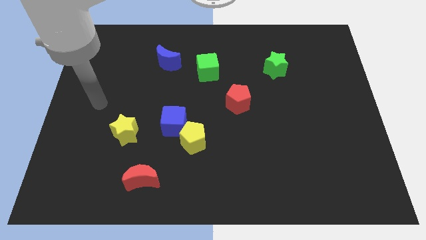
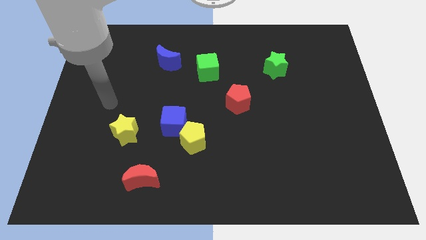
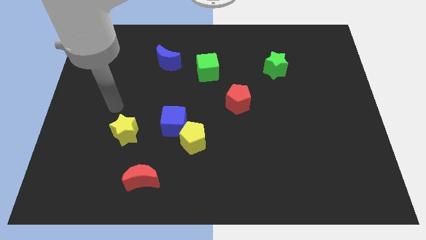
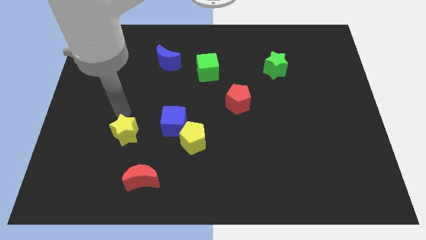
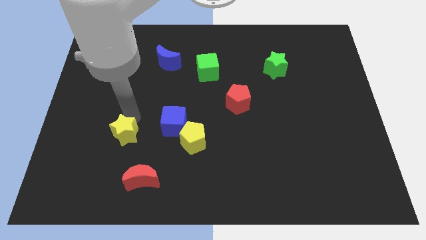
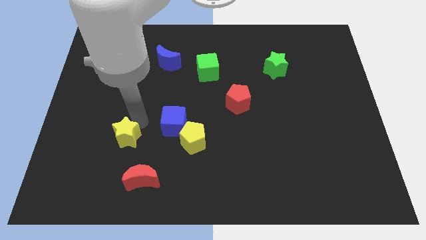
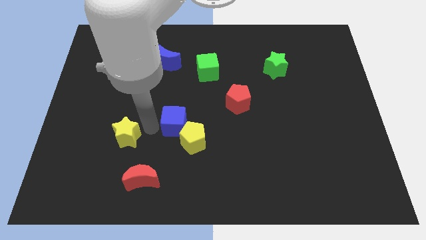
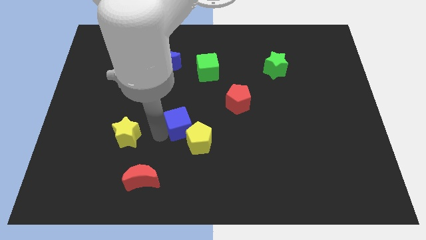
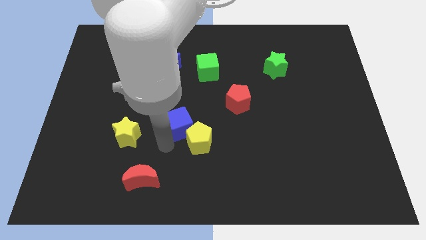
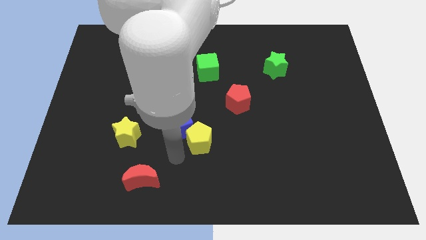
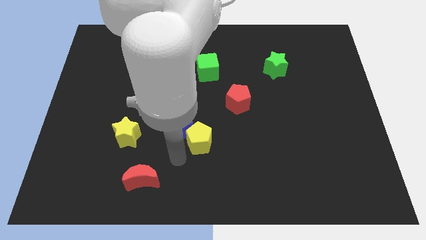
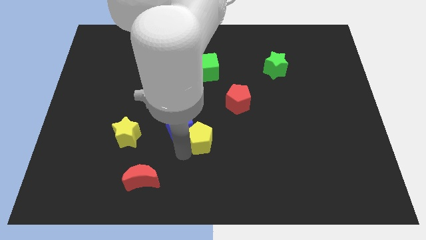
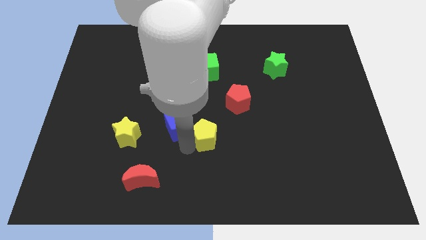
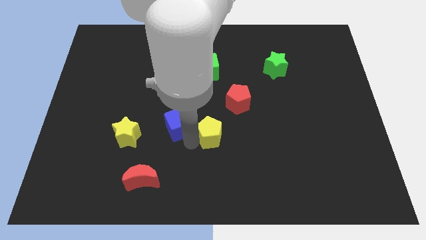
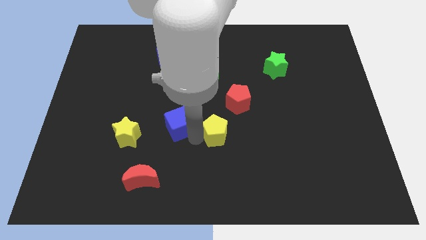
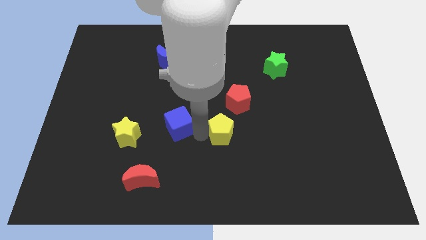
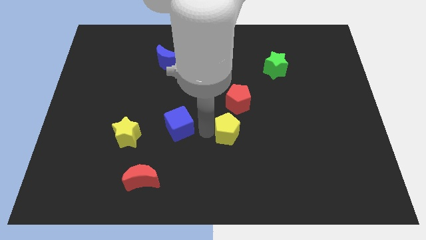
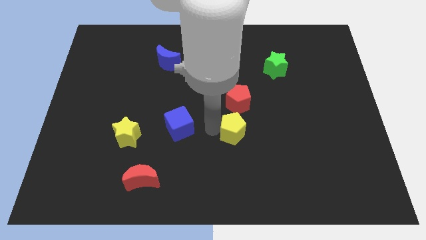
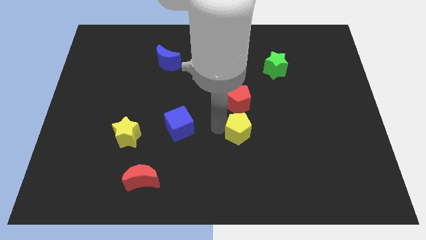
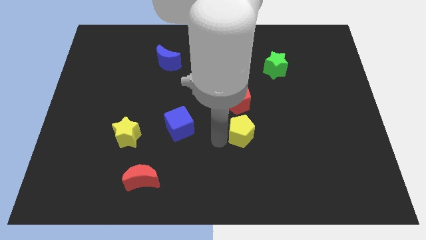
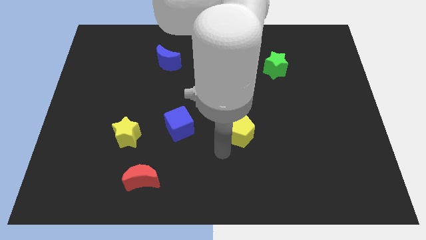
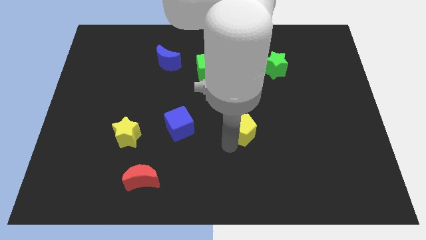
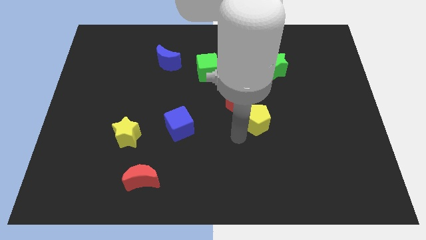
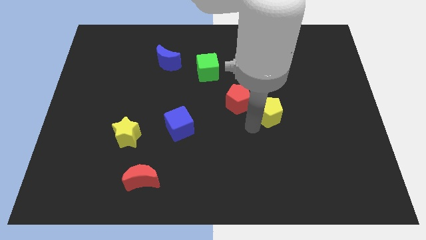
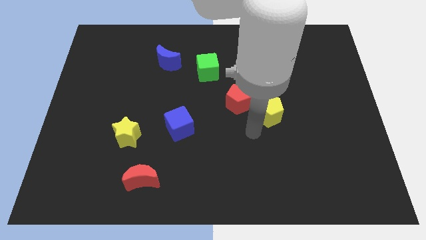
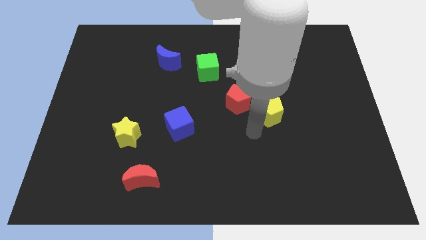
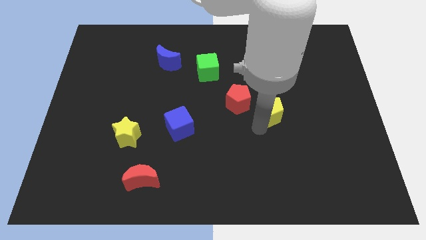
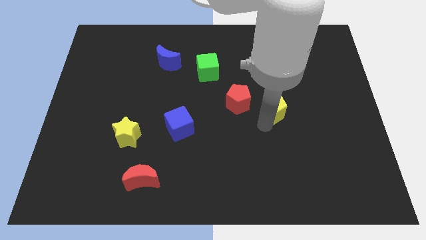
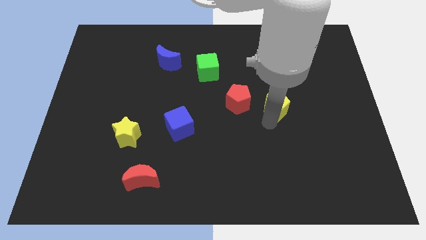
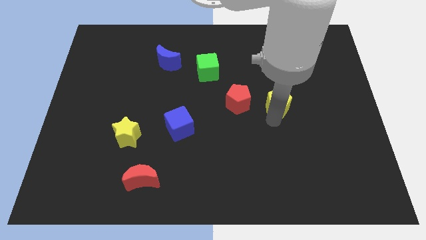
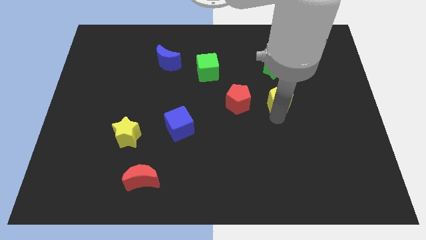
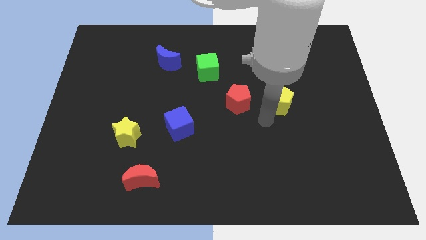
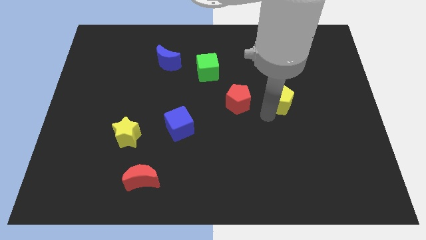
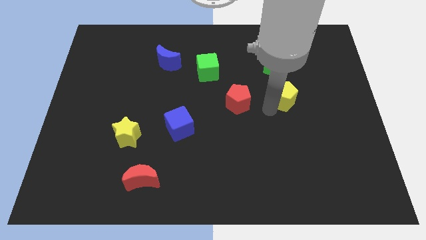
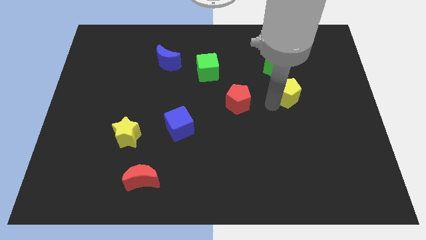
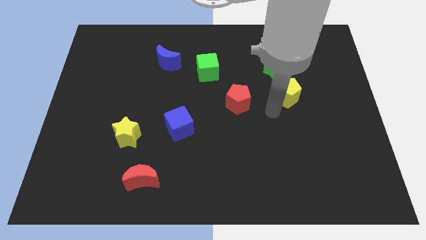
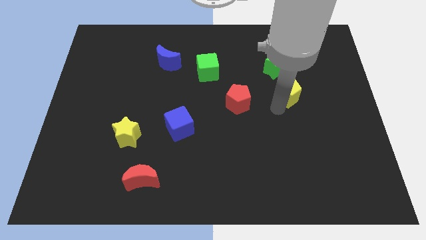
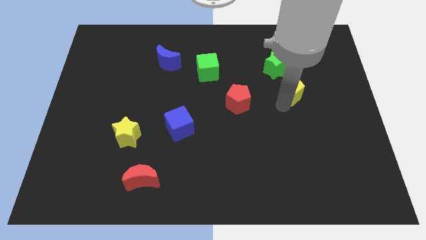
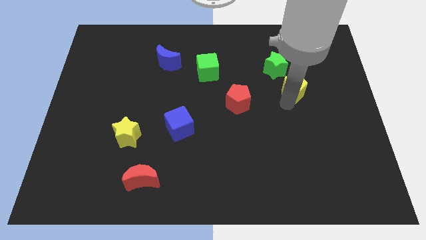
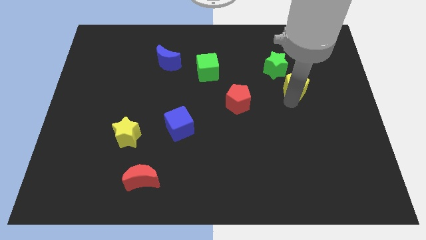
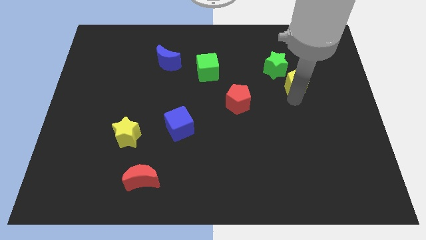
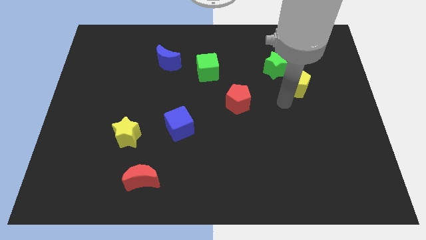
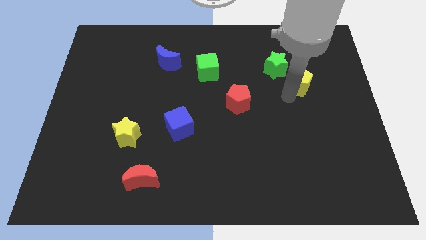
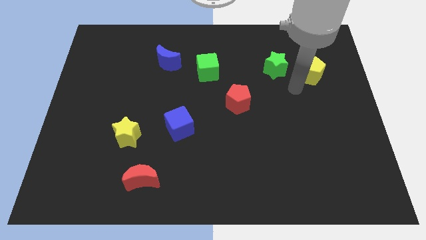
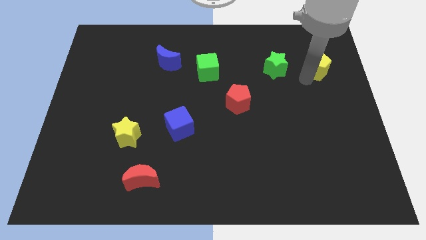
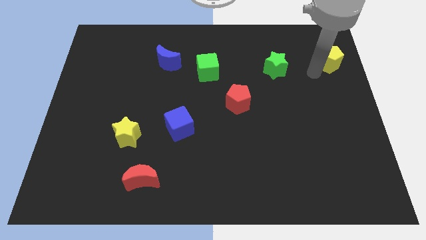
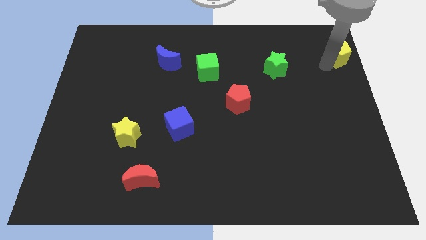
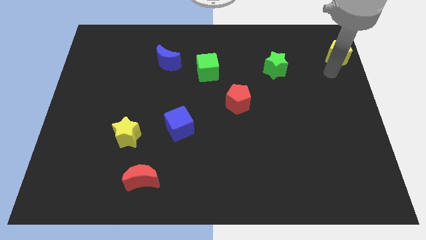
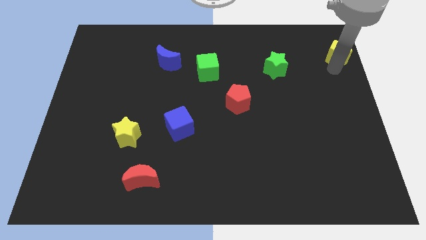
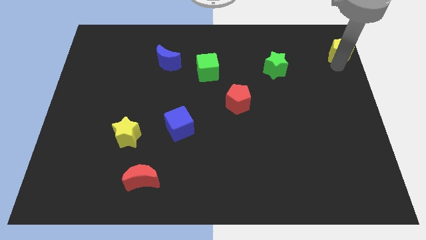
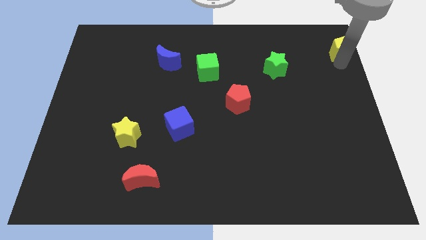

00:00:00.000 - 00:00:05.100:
push the yellow pentagon to the top right of the board

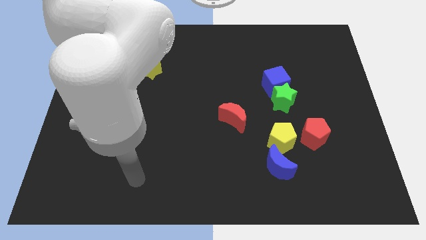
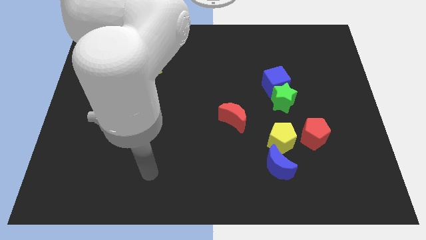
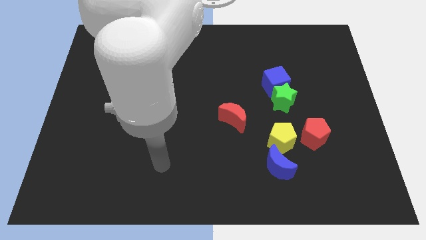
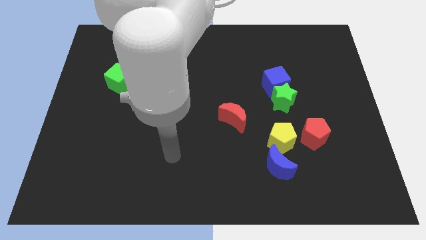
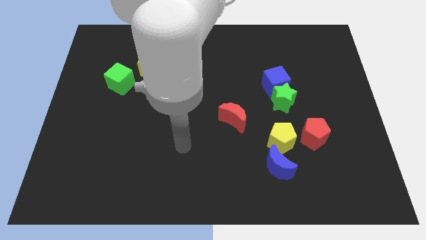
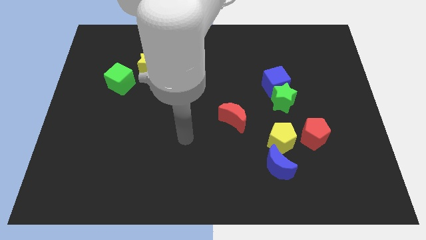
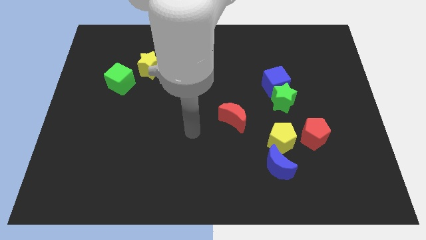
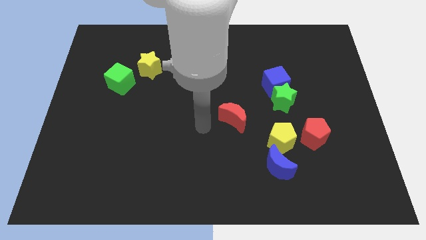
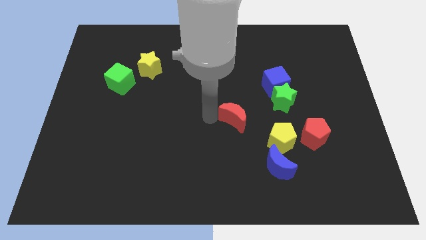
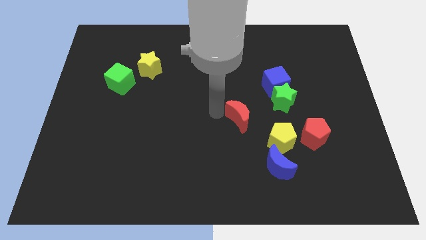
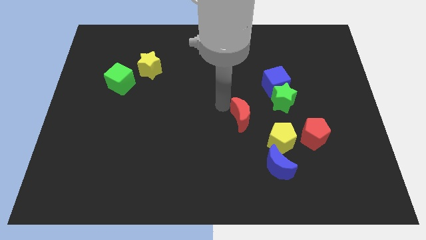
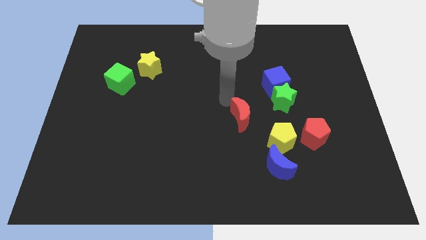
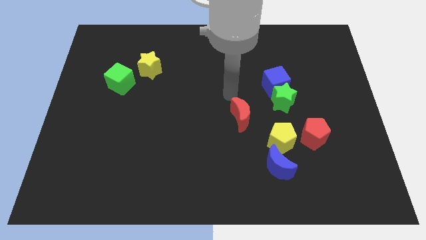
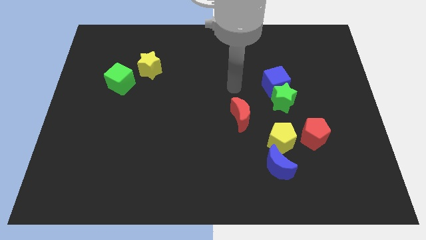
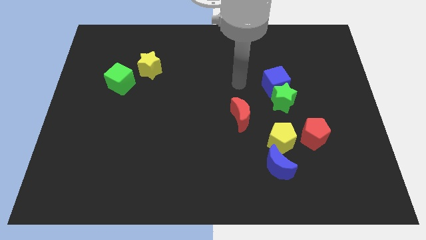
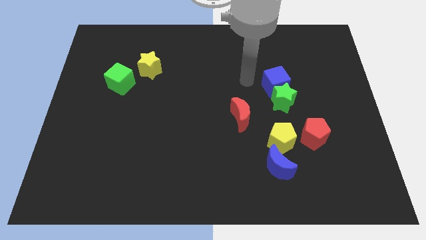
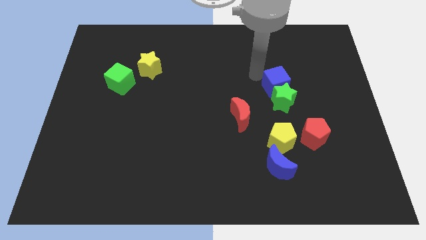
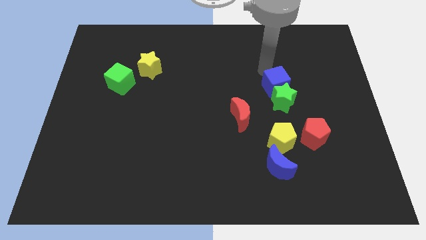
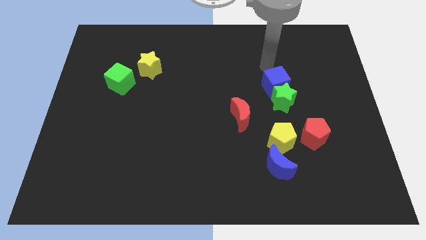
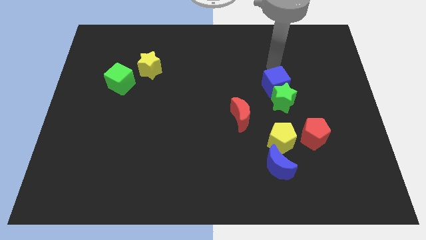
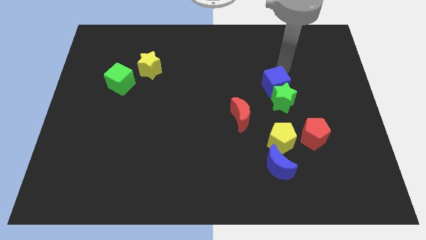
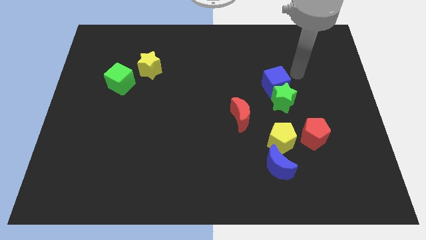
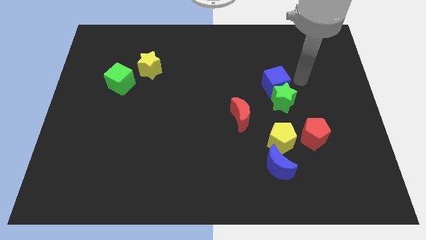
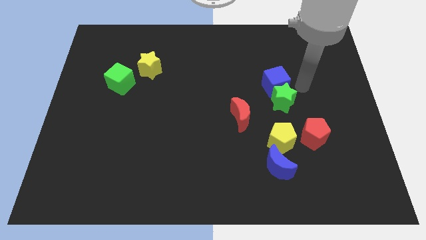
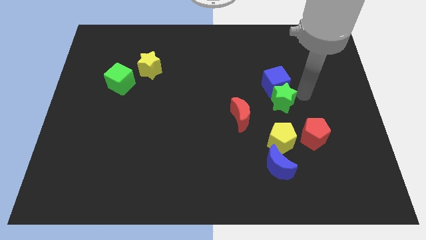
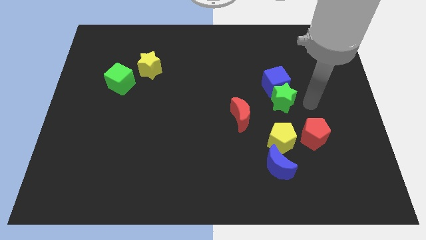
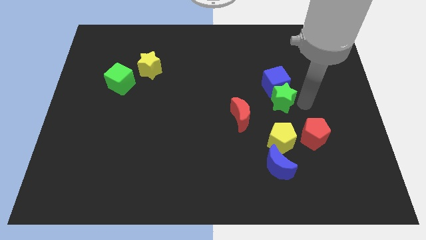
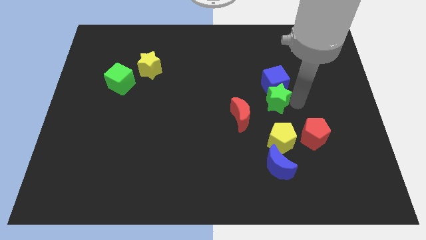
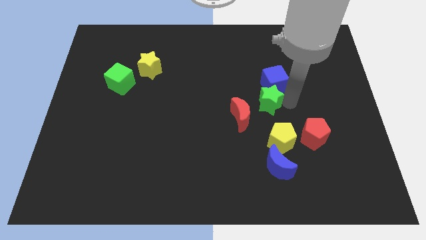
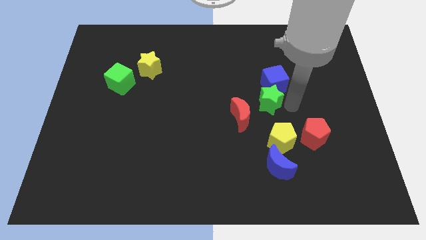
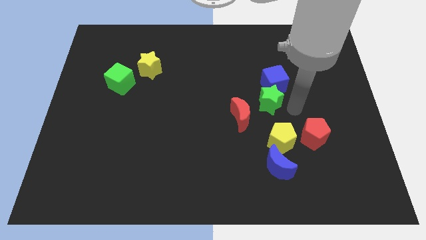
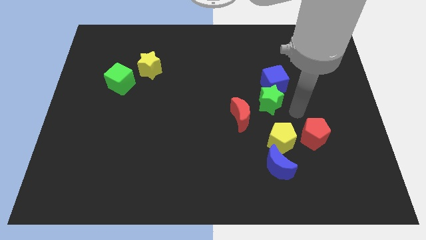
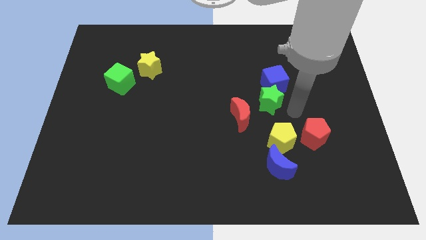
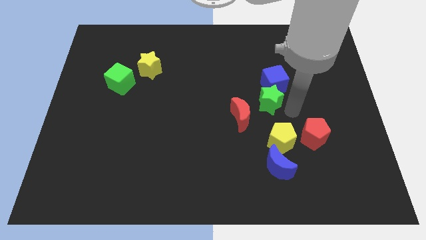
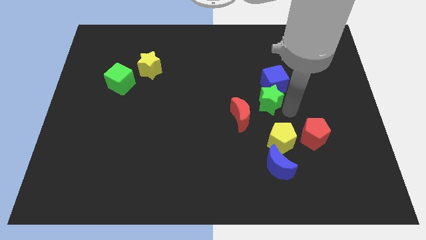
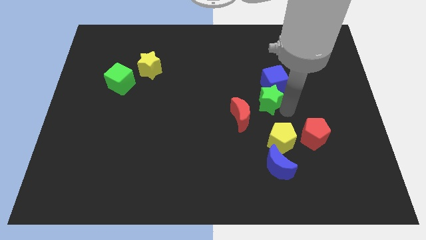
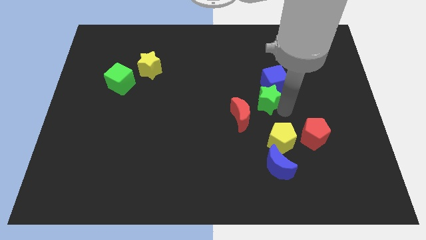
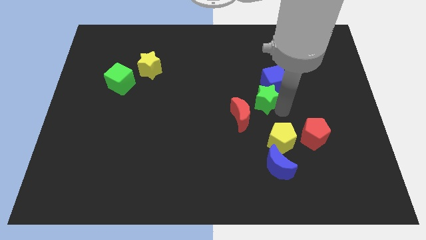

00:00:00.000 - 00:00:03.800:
slide the green star to the middle of the board
